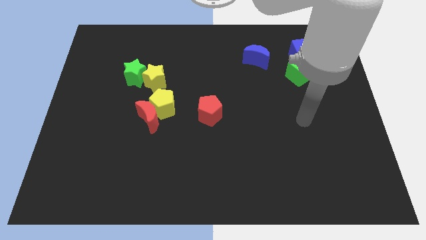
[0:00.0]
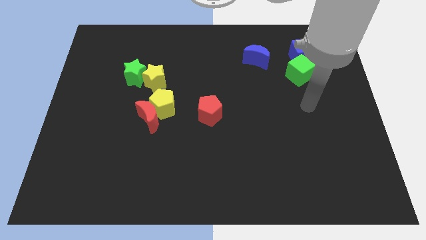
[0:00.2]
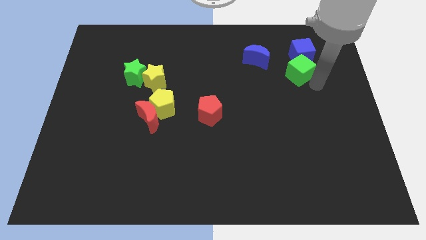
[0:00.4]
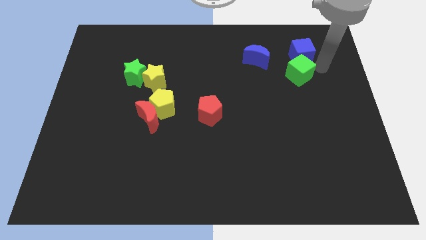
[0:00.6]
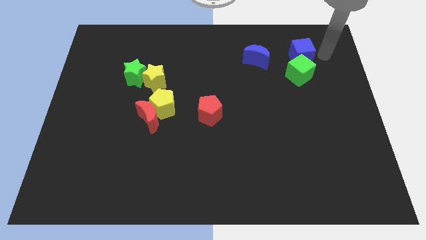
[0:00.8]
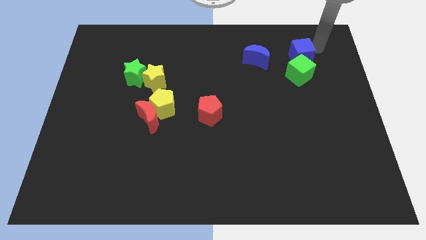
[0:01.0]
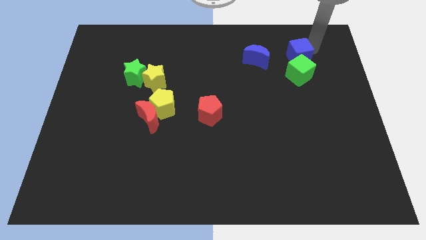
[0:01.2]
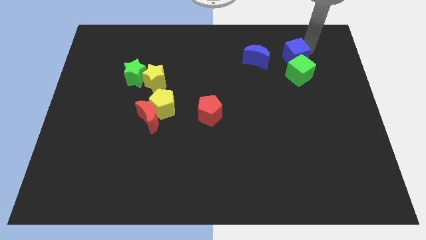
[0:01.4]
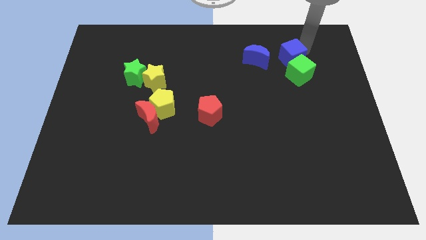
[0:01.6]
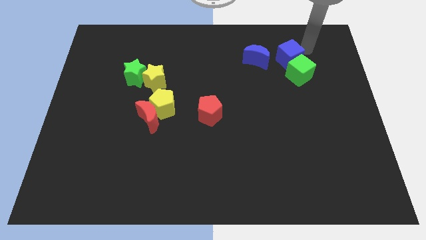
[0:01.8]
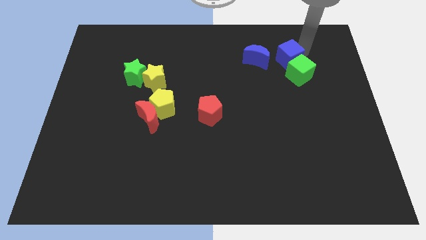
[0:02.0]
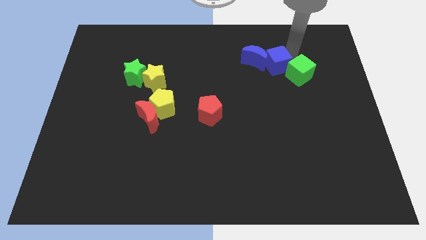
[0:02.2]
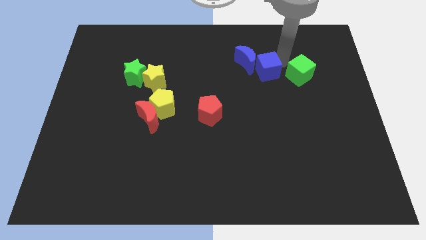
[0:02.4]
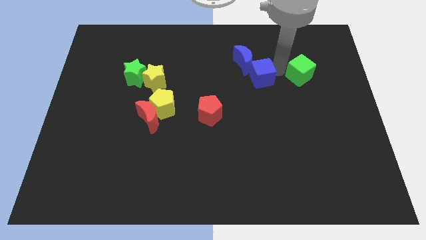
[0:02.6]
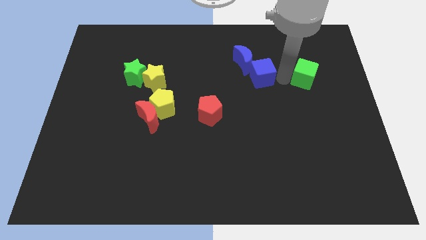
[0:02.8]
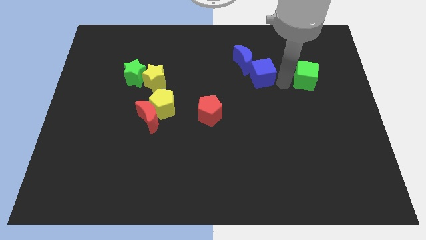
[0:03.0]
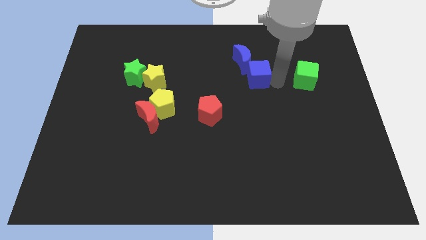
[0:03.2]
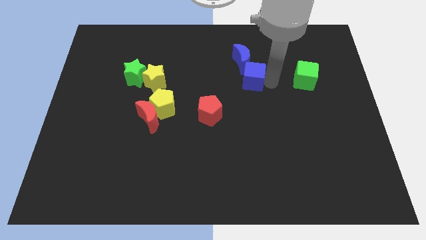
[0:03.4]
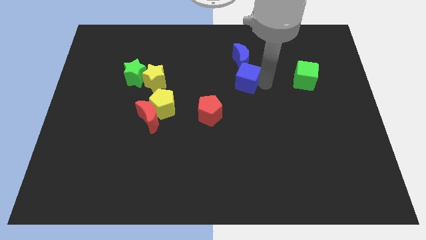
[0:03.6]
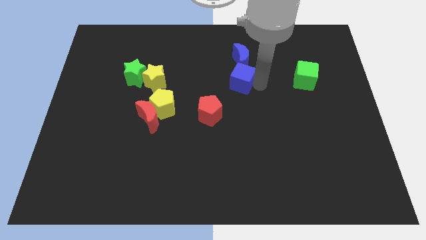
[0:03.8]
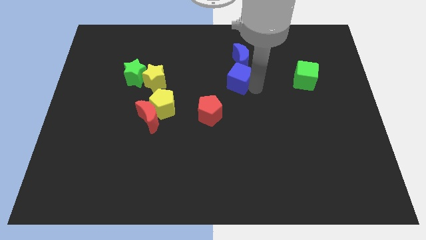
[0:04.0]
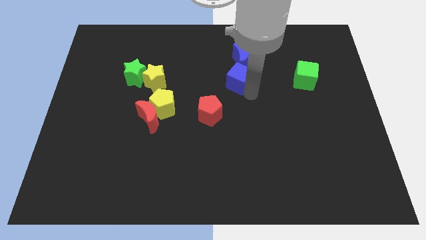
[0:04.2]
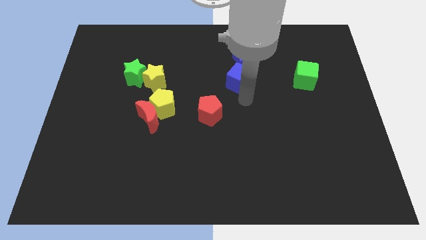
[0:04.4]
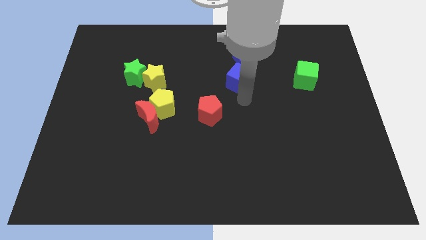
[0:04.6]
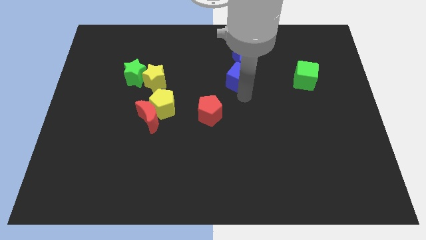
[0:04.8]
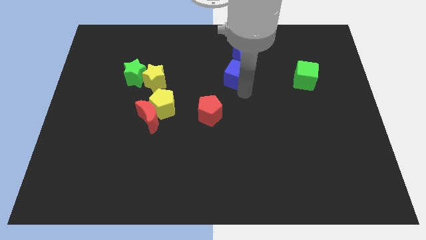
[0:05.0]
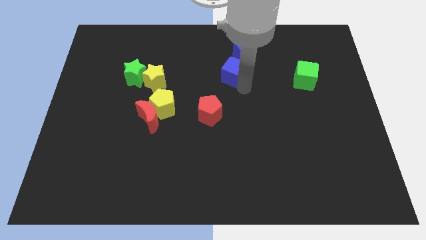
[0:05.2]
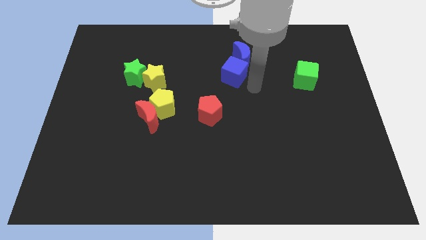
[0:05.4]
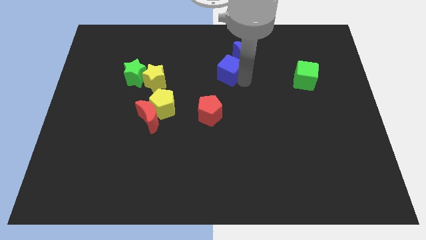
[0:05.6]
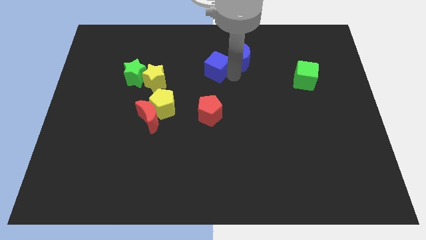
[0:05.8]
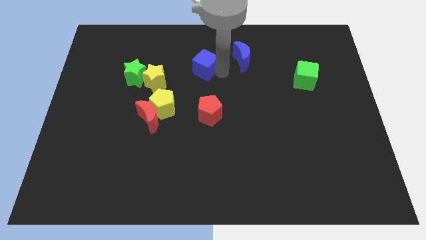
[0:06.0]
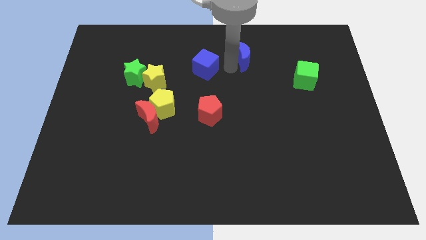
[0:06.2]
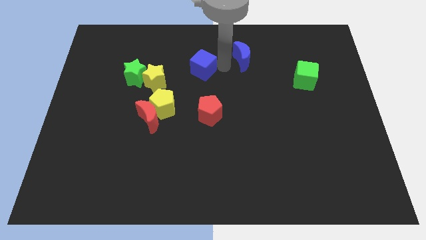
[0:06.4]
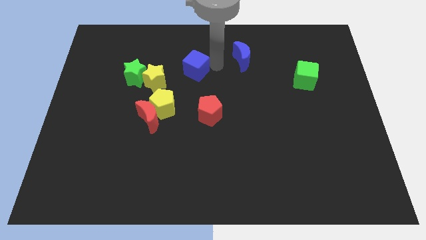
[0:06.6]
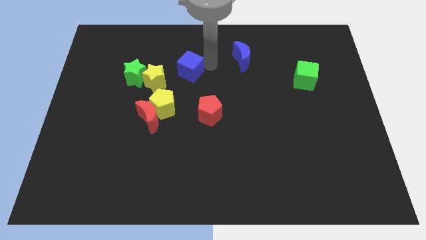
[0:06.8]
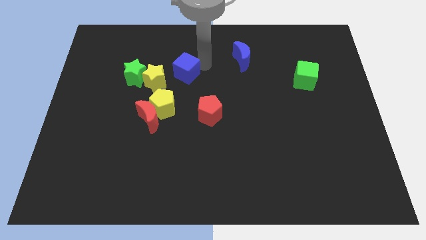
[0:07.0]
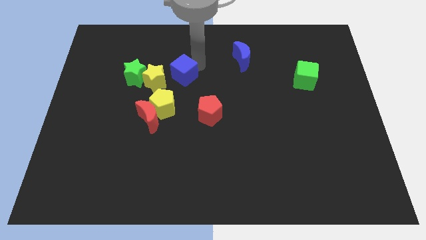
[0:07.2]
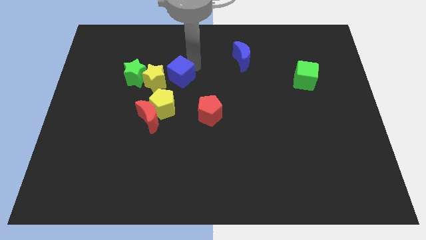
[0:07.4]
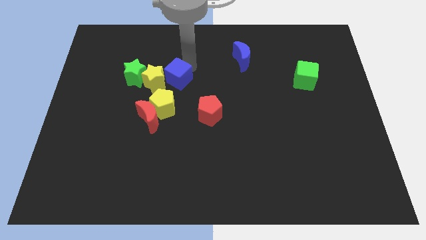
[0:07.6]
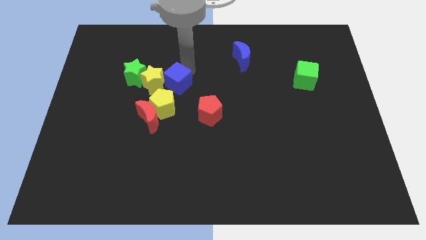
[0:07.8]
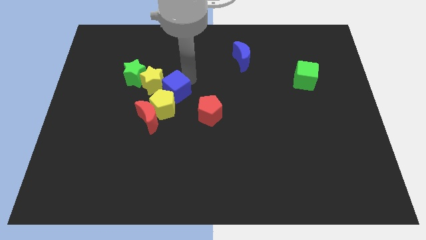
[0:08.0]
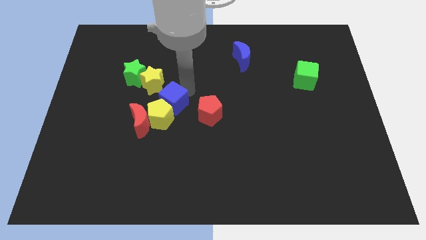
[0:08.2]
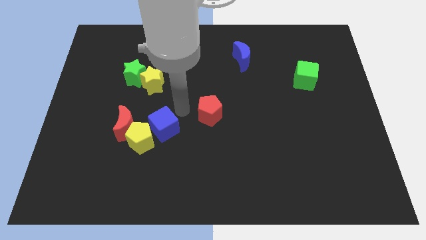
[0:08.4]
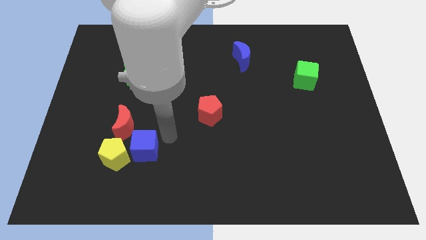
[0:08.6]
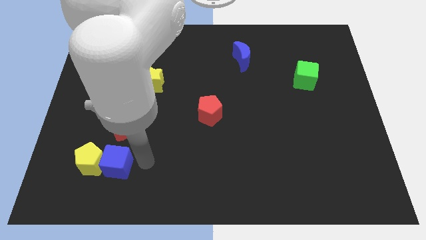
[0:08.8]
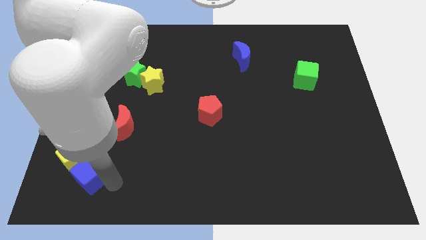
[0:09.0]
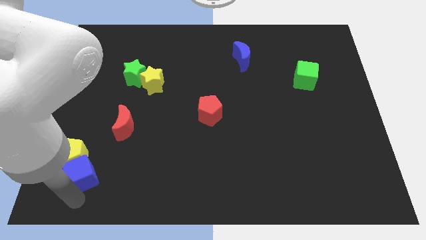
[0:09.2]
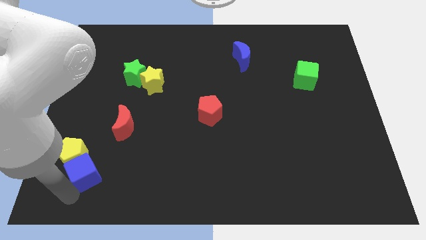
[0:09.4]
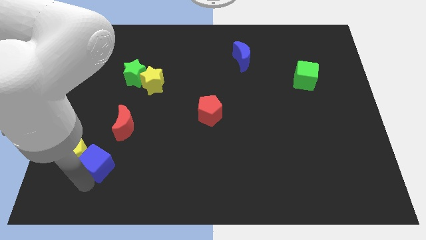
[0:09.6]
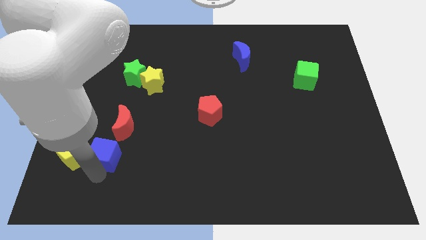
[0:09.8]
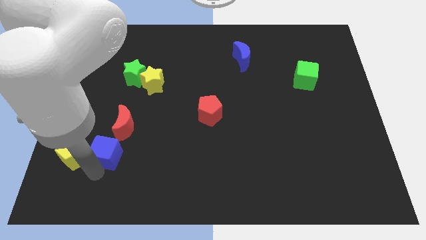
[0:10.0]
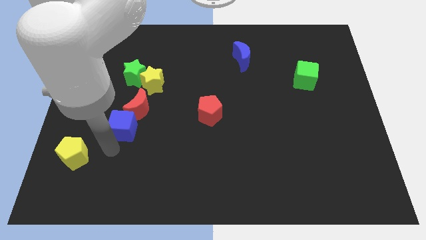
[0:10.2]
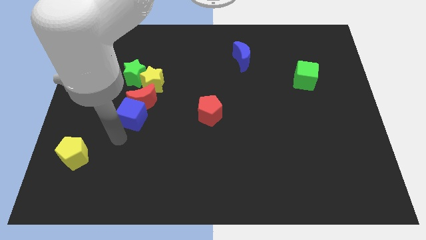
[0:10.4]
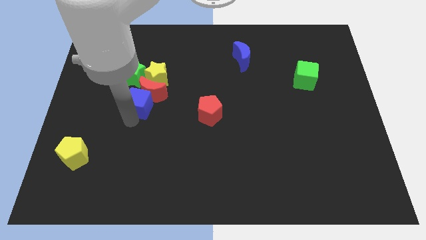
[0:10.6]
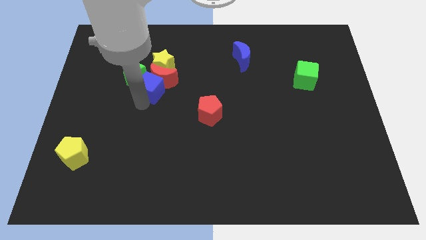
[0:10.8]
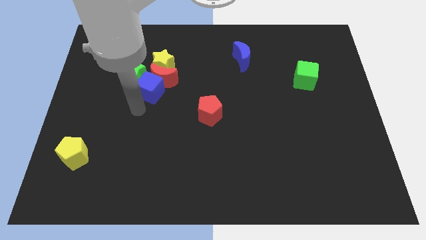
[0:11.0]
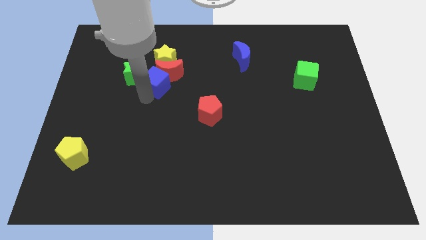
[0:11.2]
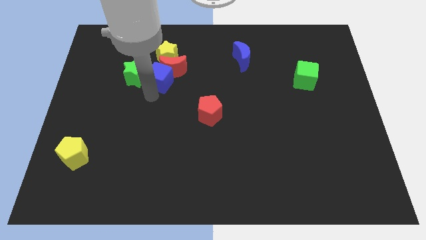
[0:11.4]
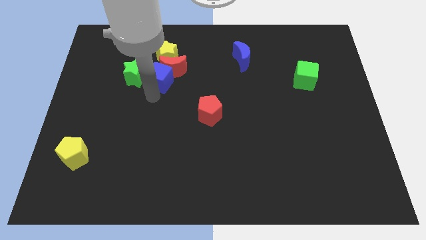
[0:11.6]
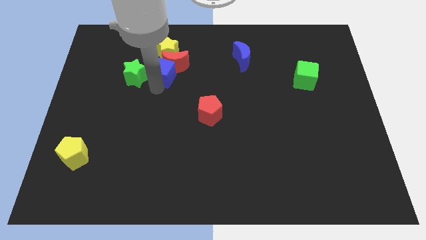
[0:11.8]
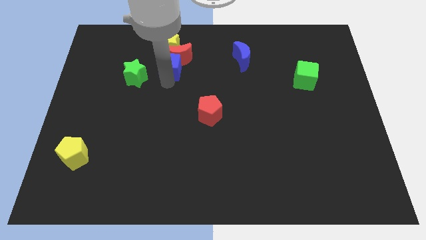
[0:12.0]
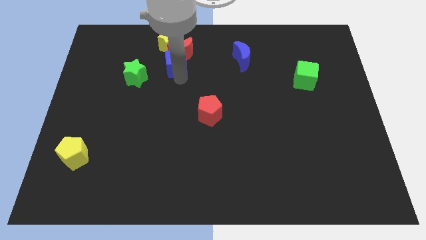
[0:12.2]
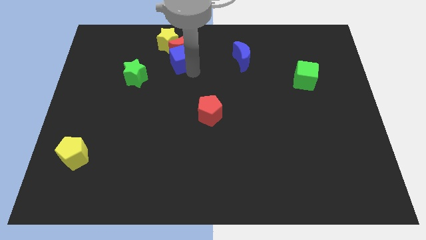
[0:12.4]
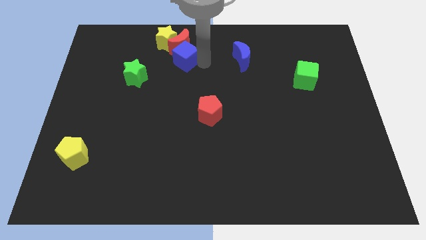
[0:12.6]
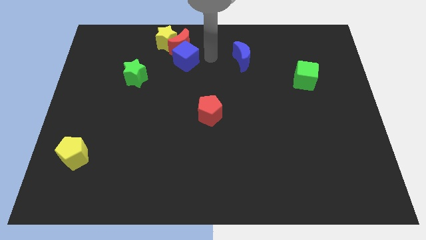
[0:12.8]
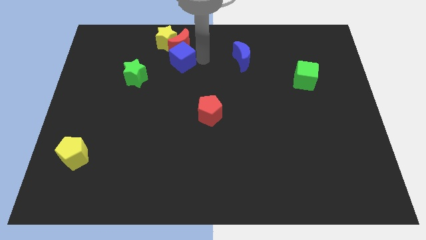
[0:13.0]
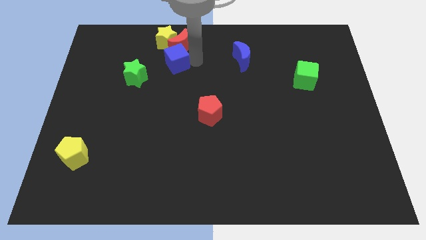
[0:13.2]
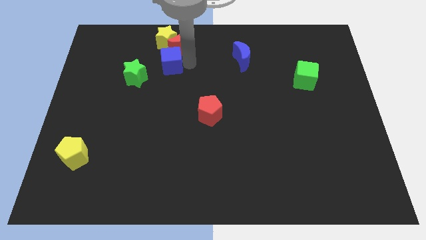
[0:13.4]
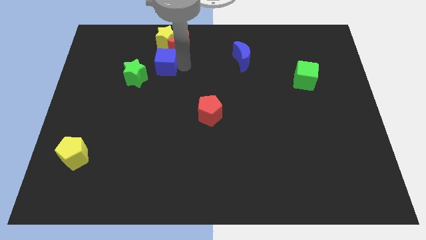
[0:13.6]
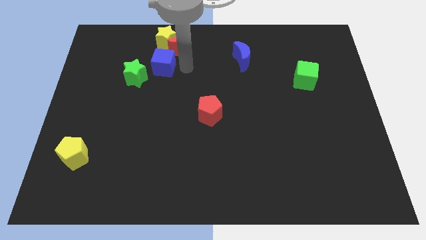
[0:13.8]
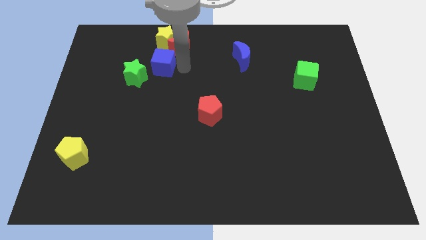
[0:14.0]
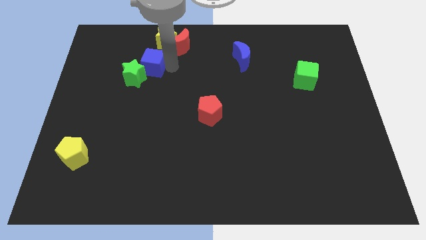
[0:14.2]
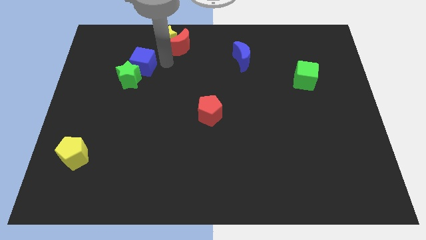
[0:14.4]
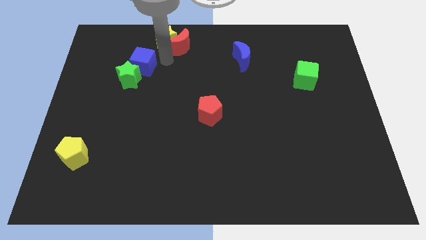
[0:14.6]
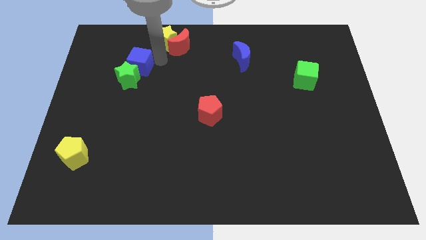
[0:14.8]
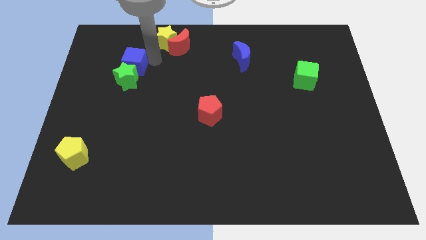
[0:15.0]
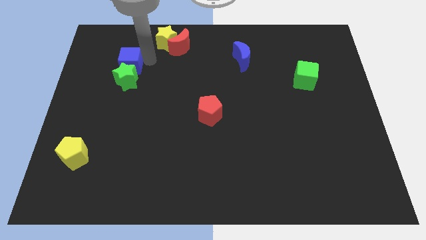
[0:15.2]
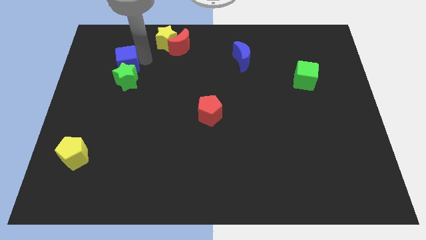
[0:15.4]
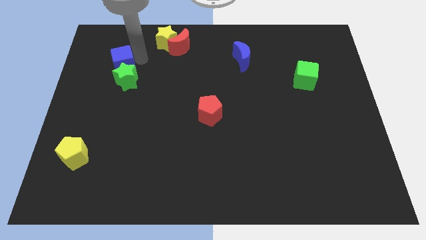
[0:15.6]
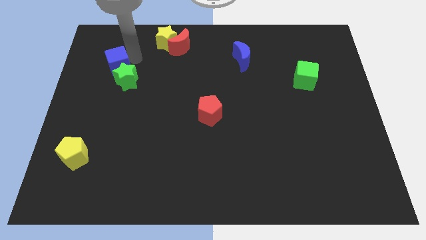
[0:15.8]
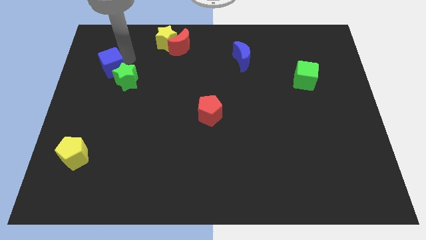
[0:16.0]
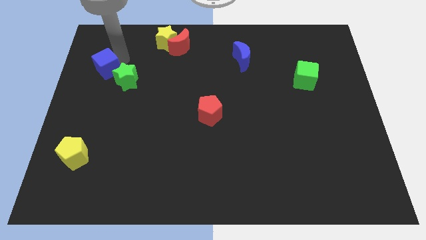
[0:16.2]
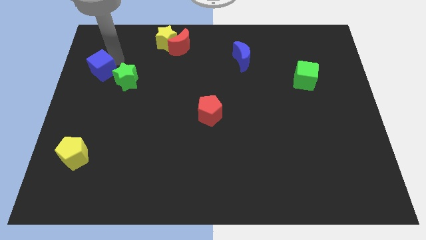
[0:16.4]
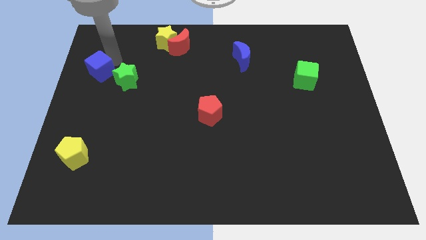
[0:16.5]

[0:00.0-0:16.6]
slide the blue cube to the left side of the board
